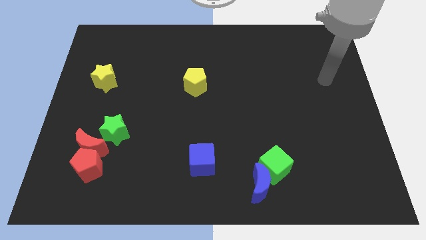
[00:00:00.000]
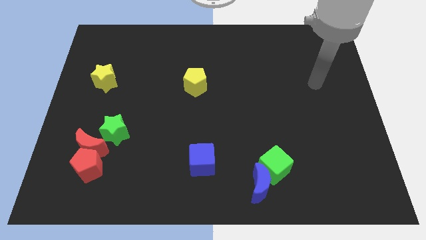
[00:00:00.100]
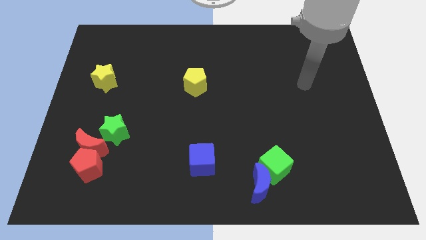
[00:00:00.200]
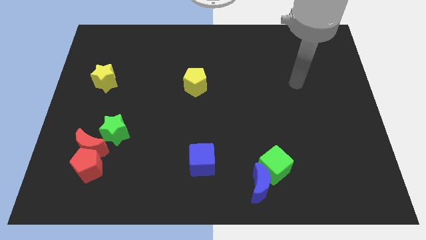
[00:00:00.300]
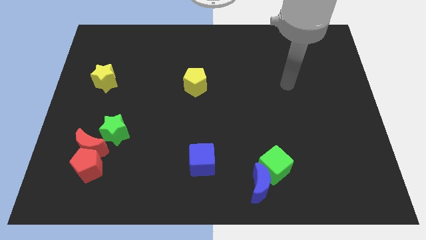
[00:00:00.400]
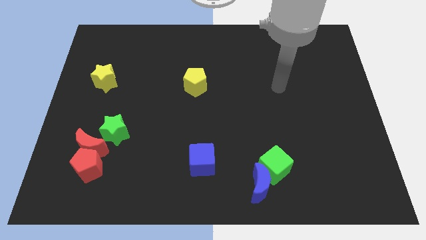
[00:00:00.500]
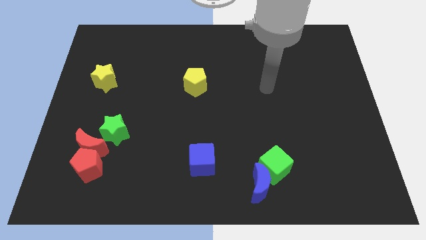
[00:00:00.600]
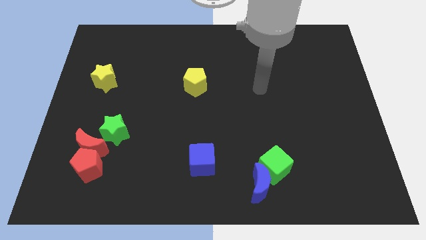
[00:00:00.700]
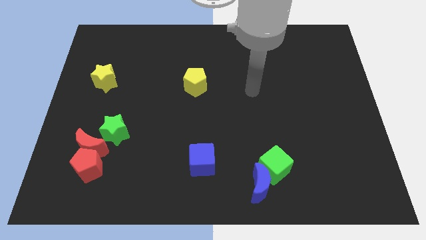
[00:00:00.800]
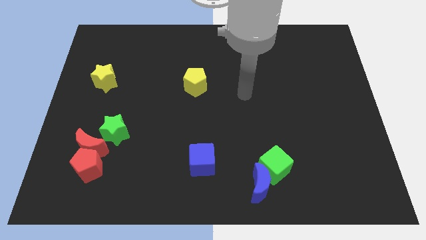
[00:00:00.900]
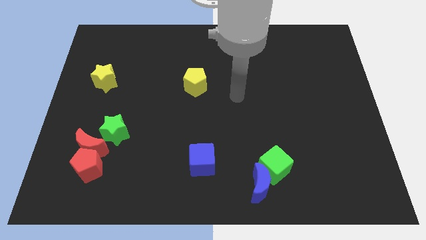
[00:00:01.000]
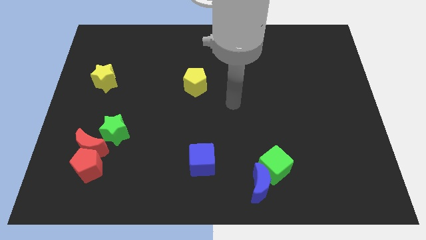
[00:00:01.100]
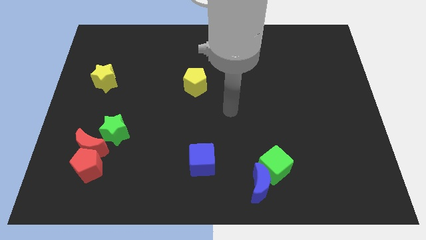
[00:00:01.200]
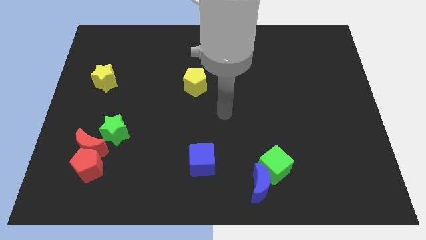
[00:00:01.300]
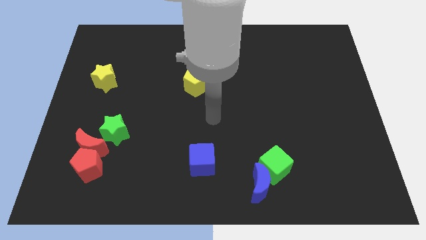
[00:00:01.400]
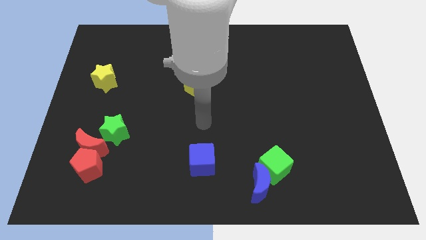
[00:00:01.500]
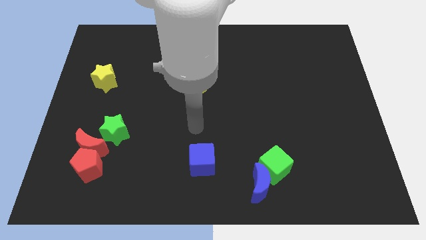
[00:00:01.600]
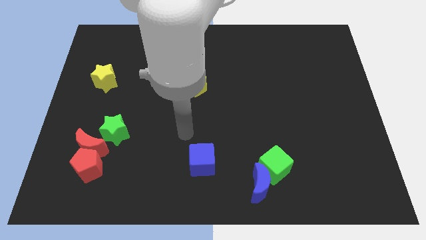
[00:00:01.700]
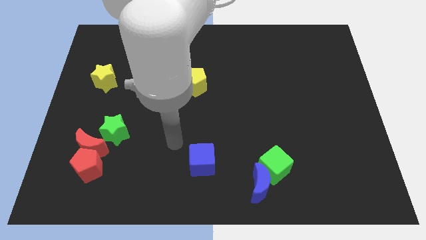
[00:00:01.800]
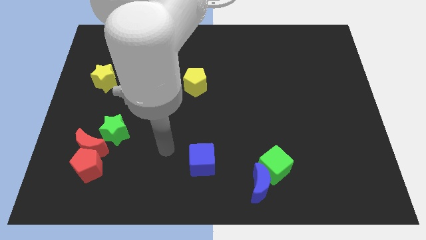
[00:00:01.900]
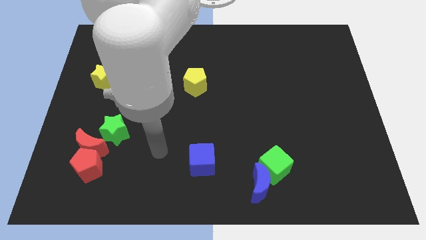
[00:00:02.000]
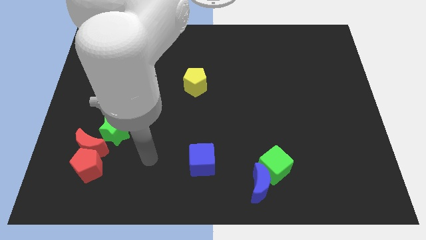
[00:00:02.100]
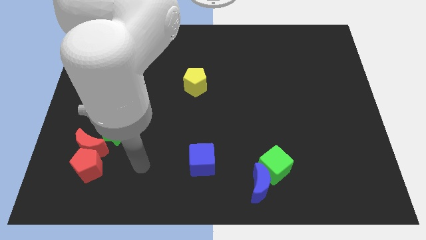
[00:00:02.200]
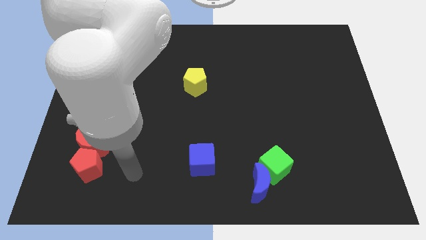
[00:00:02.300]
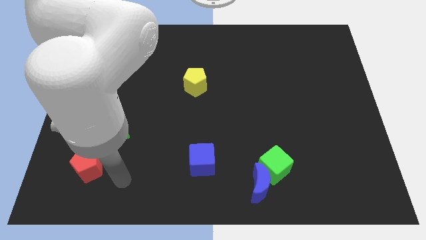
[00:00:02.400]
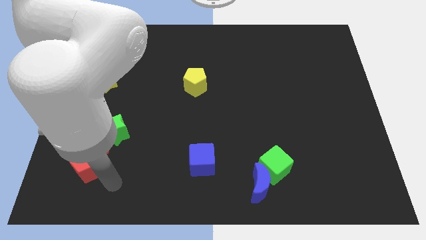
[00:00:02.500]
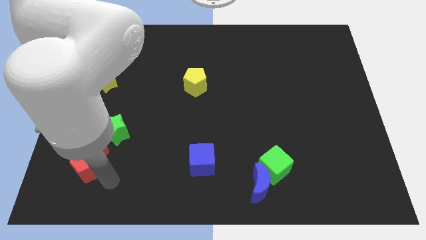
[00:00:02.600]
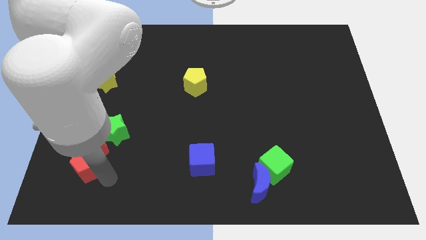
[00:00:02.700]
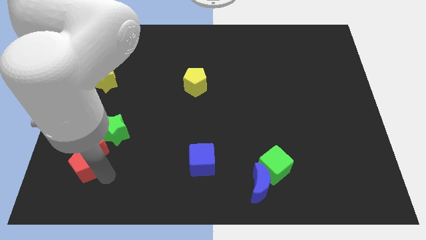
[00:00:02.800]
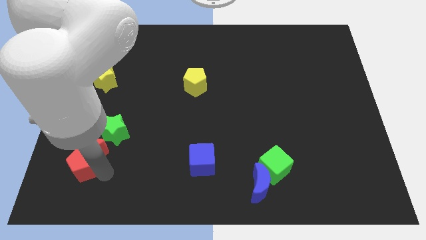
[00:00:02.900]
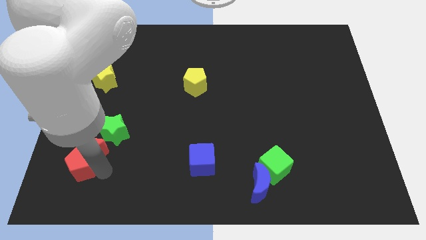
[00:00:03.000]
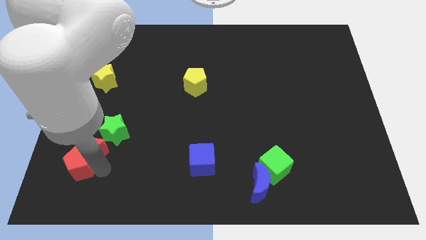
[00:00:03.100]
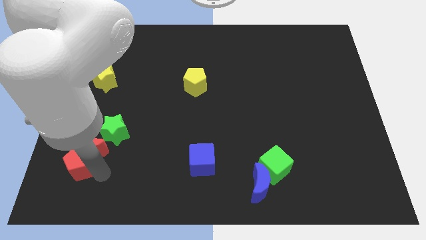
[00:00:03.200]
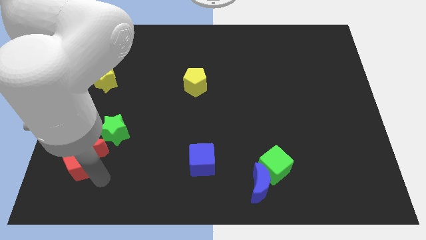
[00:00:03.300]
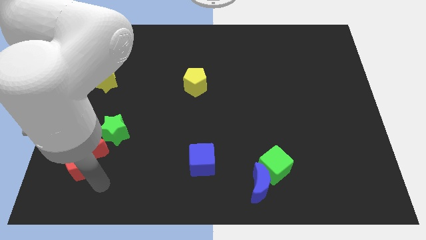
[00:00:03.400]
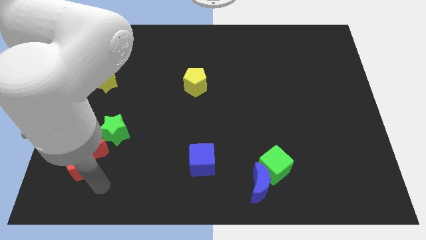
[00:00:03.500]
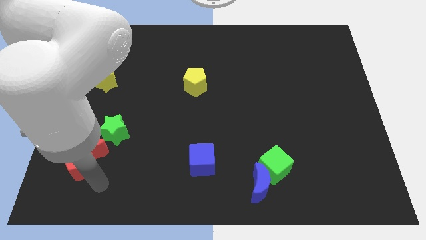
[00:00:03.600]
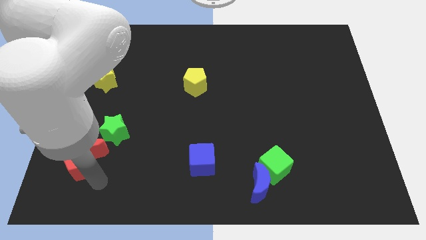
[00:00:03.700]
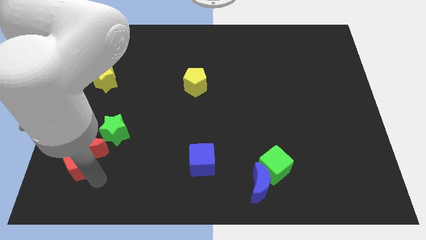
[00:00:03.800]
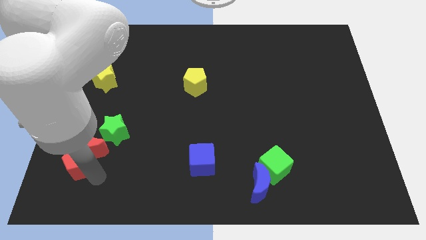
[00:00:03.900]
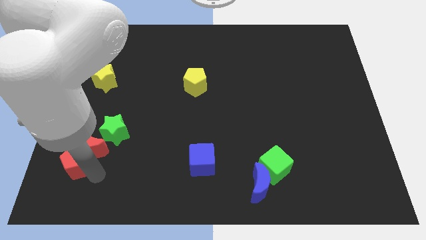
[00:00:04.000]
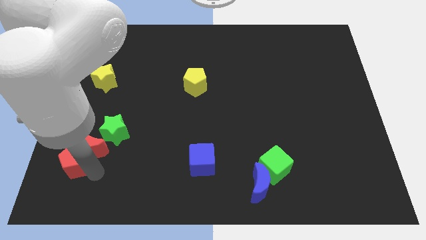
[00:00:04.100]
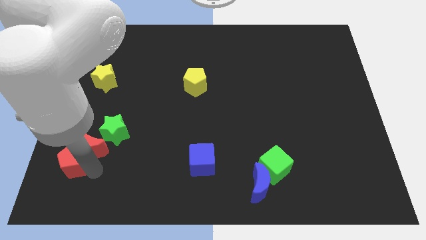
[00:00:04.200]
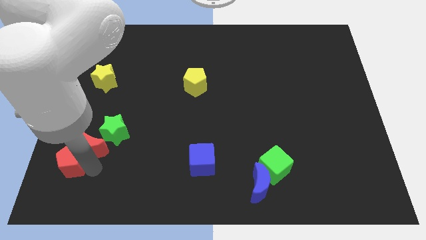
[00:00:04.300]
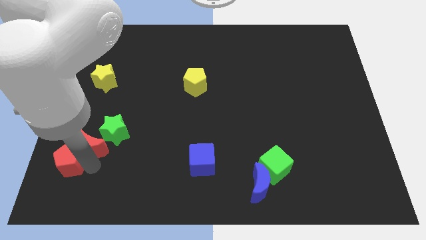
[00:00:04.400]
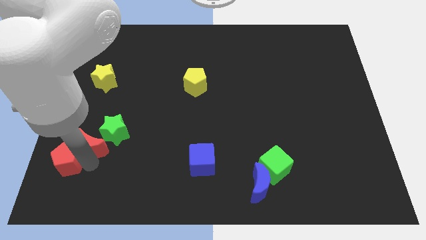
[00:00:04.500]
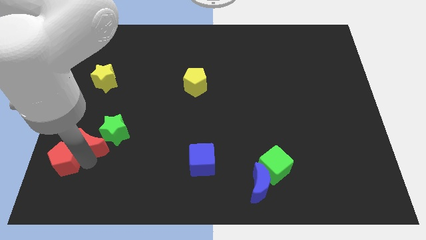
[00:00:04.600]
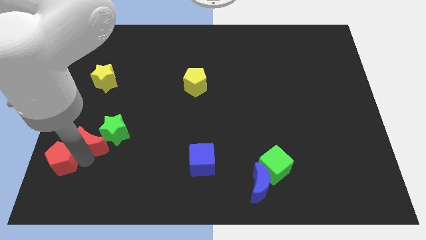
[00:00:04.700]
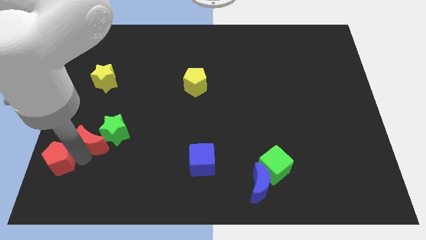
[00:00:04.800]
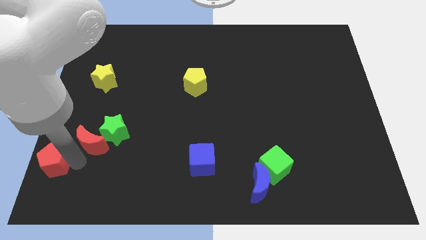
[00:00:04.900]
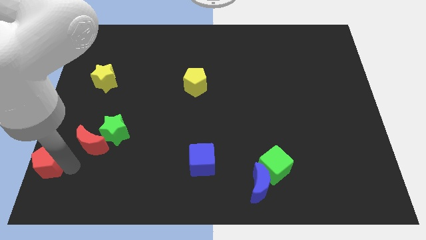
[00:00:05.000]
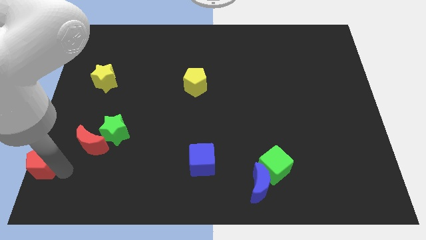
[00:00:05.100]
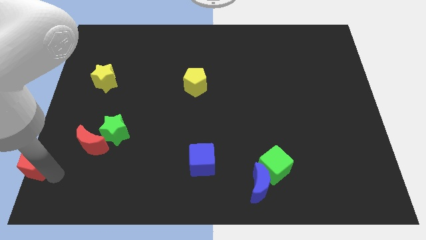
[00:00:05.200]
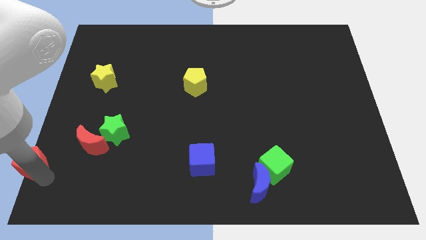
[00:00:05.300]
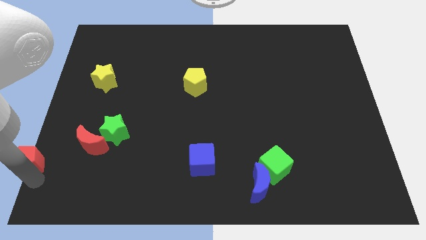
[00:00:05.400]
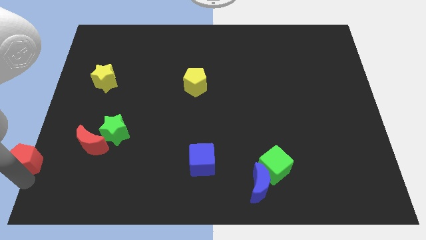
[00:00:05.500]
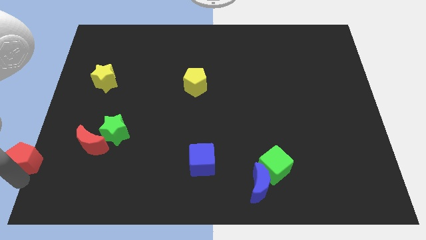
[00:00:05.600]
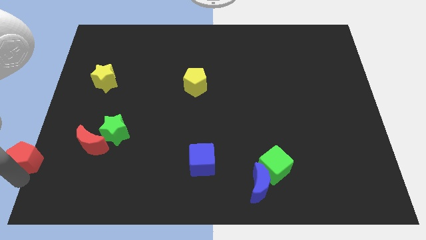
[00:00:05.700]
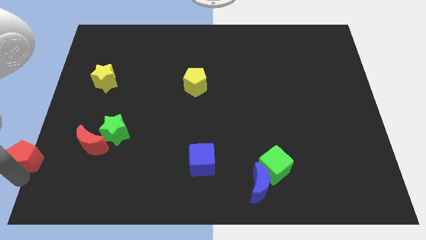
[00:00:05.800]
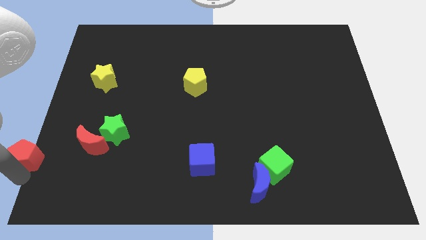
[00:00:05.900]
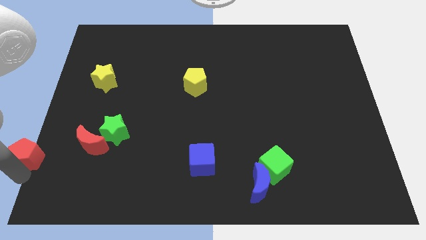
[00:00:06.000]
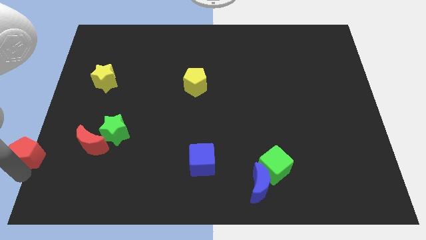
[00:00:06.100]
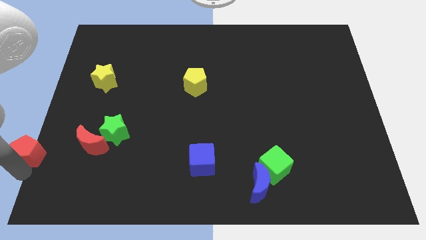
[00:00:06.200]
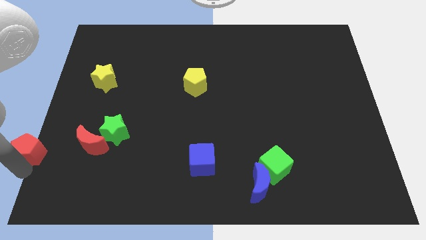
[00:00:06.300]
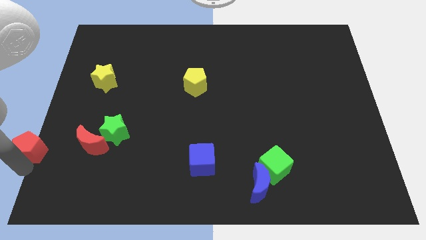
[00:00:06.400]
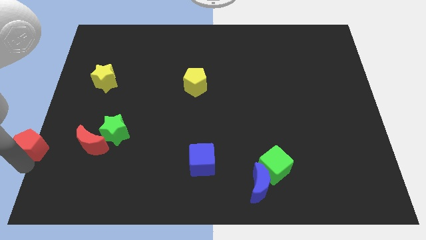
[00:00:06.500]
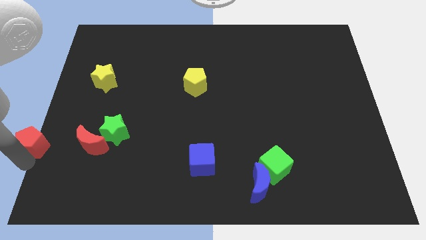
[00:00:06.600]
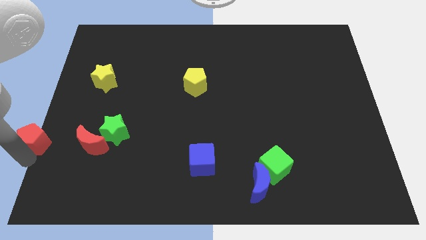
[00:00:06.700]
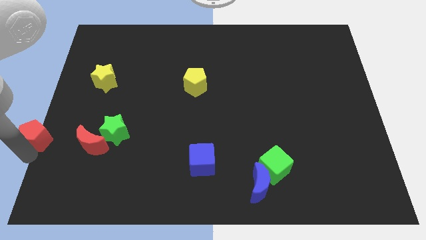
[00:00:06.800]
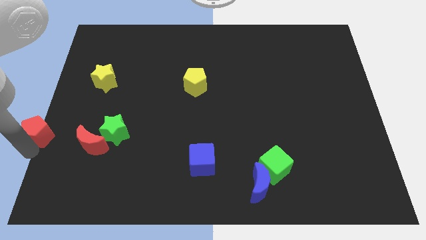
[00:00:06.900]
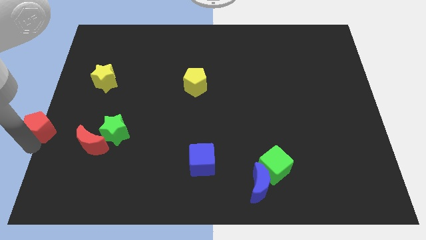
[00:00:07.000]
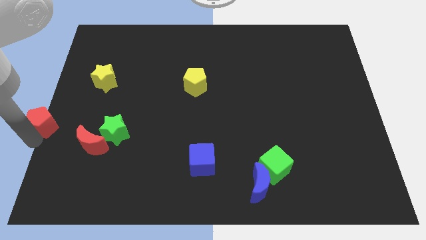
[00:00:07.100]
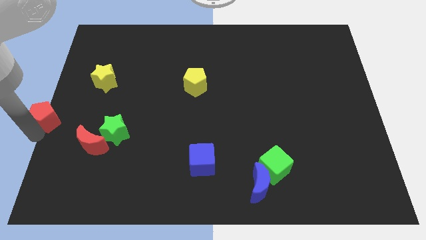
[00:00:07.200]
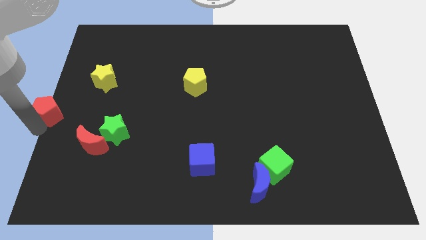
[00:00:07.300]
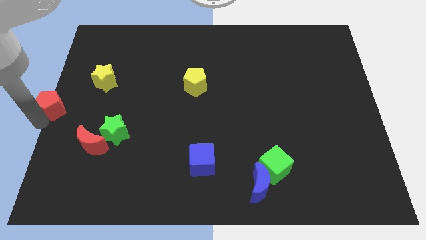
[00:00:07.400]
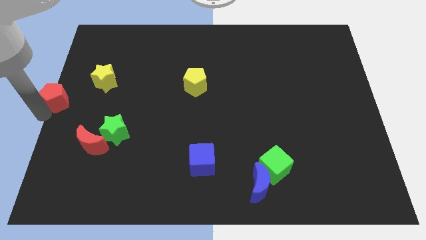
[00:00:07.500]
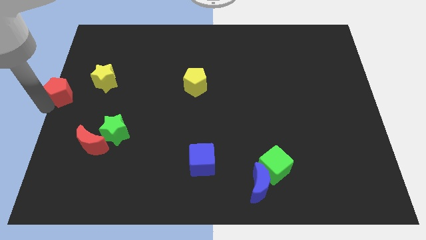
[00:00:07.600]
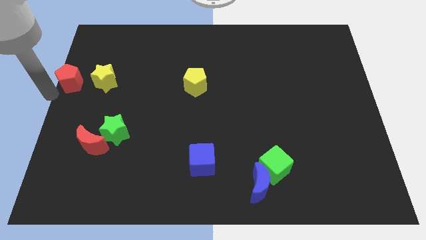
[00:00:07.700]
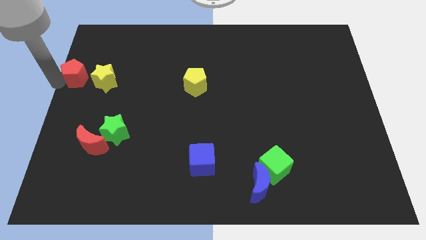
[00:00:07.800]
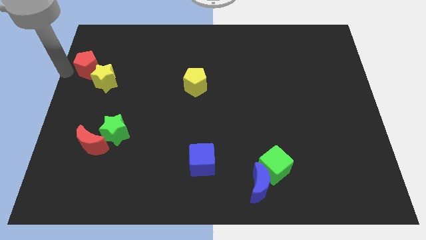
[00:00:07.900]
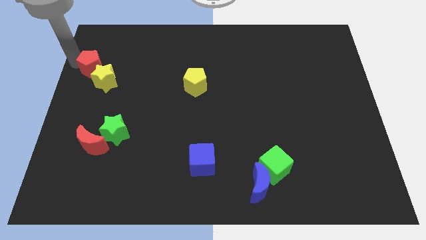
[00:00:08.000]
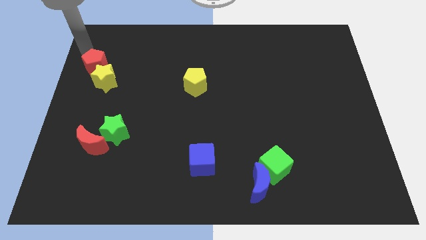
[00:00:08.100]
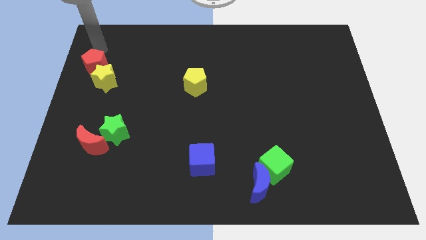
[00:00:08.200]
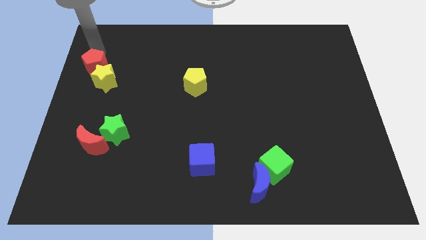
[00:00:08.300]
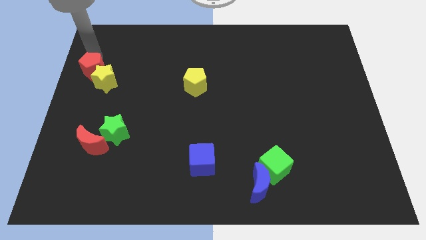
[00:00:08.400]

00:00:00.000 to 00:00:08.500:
move the red pentagon to the yellow star
